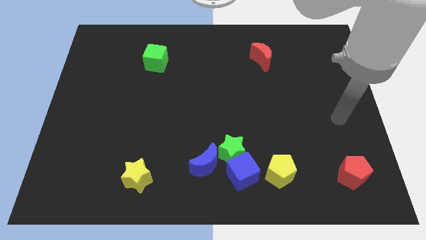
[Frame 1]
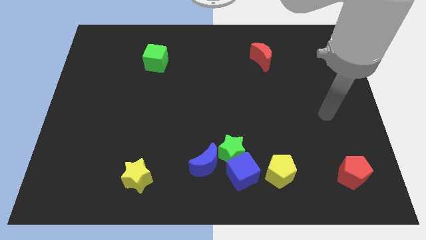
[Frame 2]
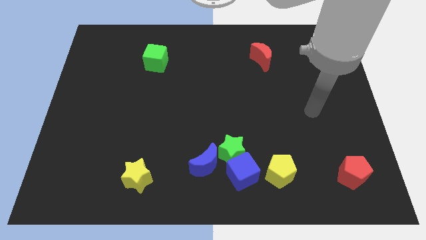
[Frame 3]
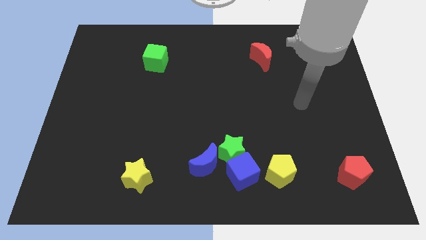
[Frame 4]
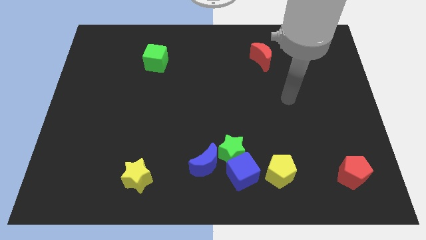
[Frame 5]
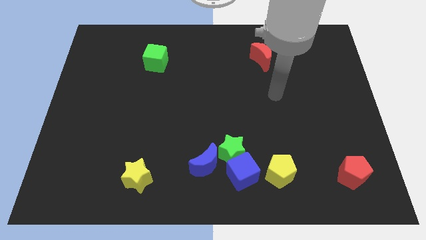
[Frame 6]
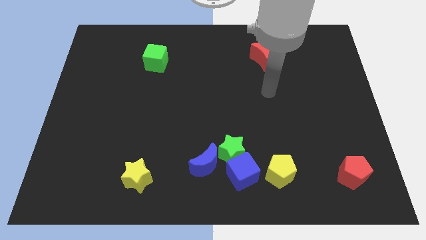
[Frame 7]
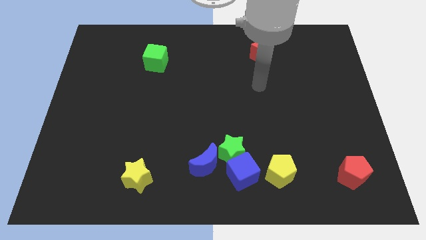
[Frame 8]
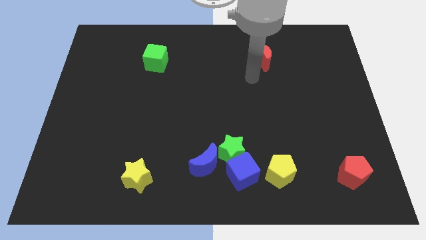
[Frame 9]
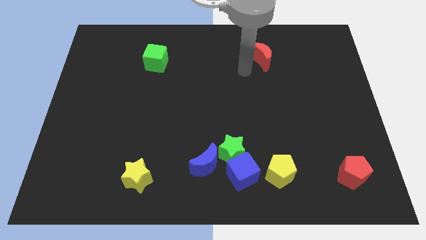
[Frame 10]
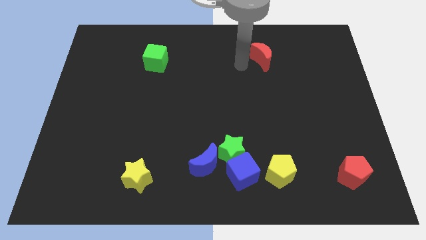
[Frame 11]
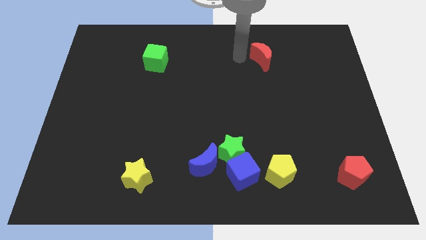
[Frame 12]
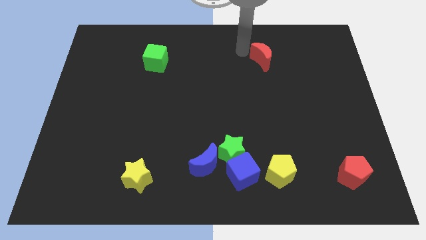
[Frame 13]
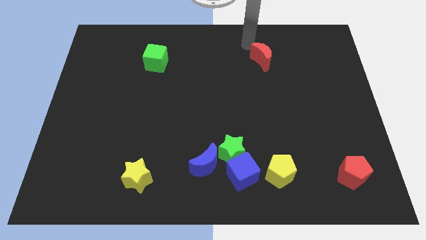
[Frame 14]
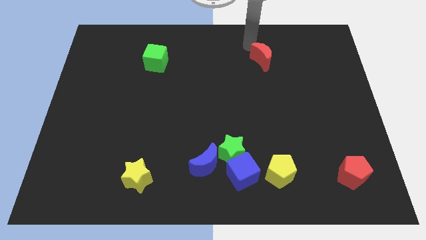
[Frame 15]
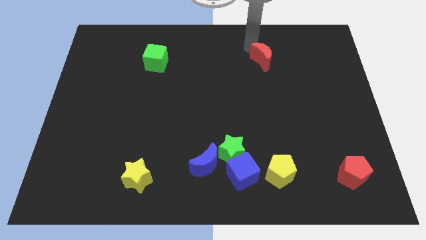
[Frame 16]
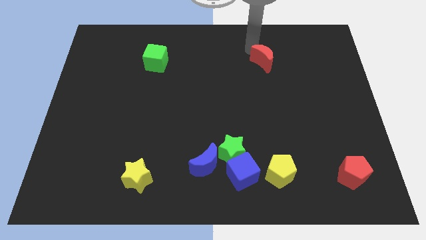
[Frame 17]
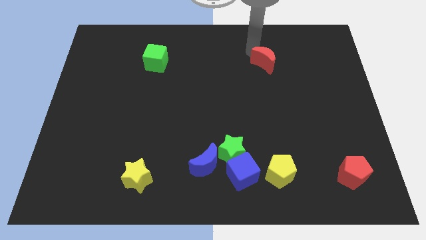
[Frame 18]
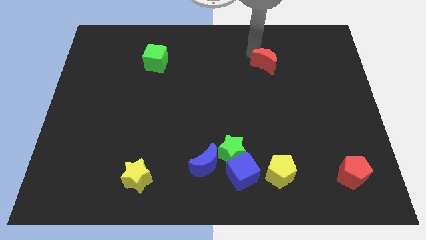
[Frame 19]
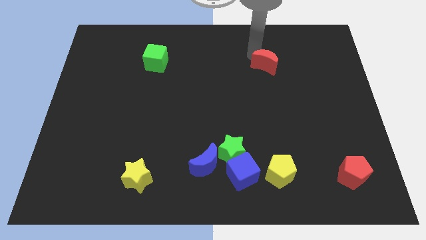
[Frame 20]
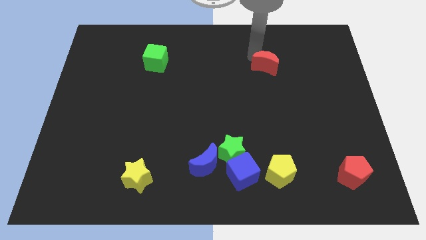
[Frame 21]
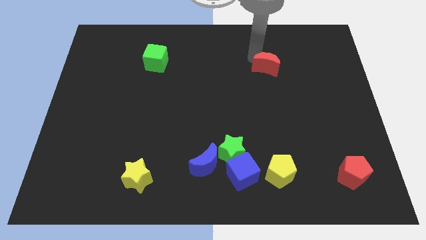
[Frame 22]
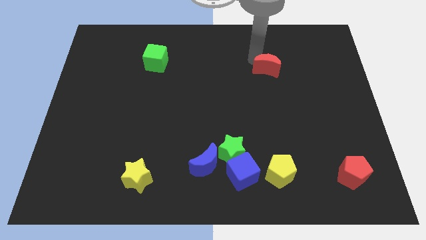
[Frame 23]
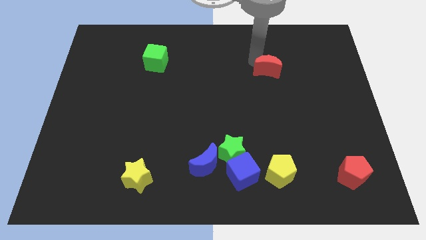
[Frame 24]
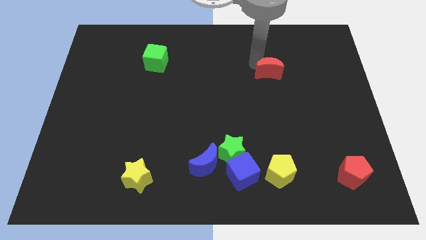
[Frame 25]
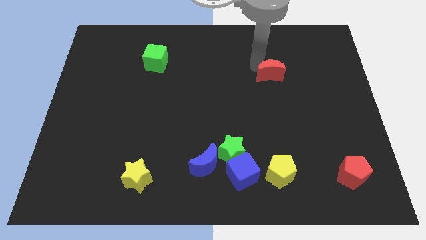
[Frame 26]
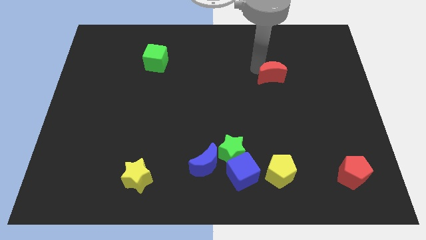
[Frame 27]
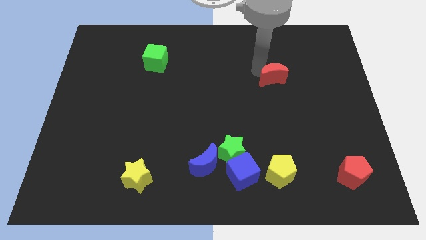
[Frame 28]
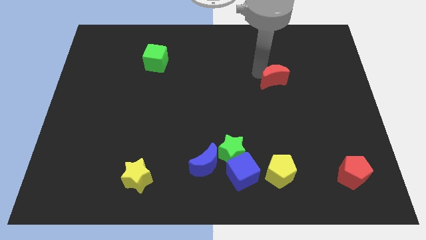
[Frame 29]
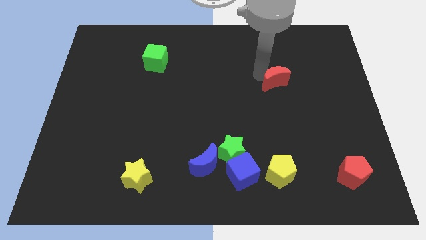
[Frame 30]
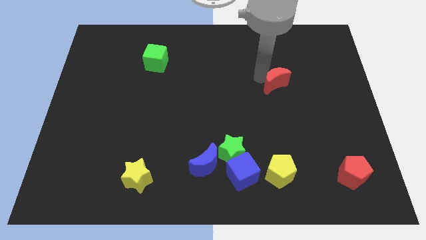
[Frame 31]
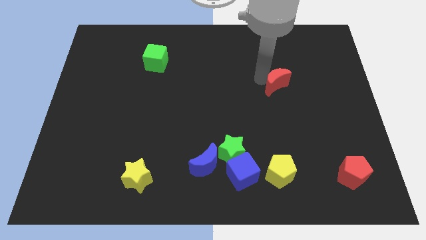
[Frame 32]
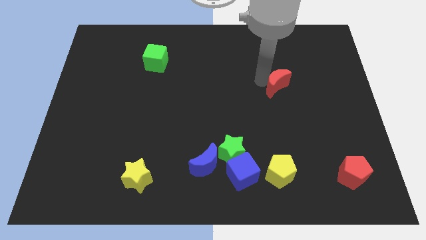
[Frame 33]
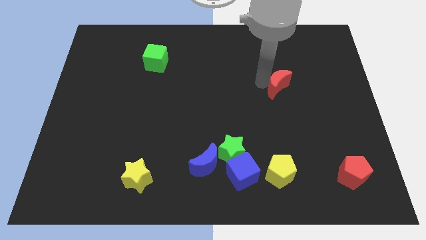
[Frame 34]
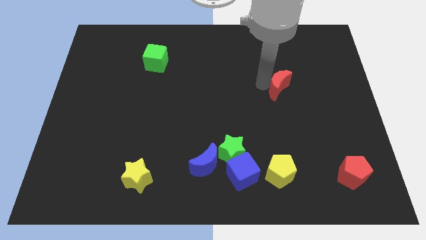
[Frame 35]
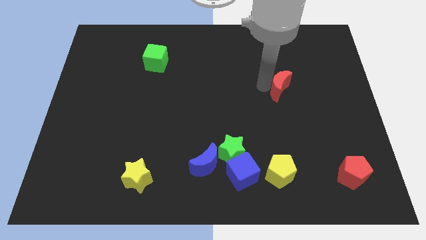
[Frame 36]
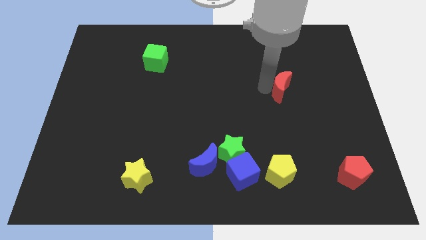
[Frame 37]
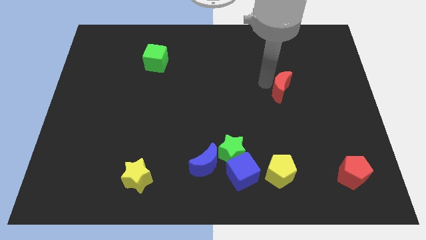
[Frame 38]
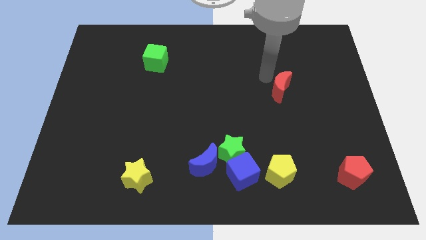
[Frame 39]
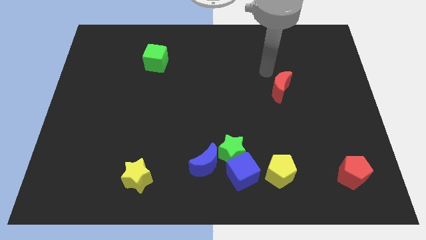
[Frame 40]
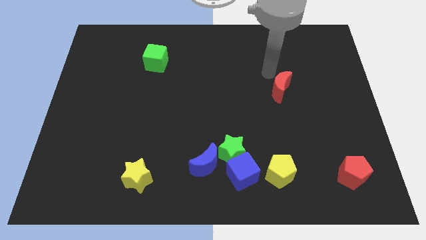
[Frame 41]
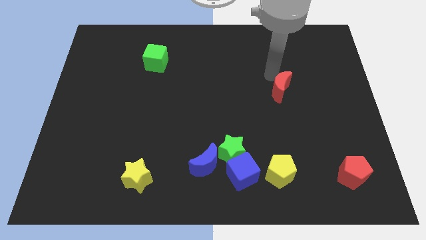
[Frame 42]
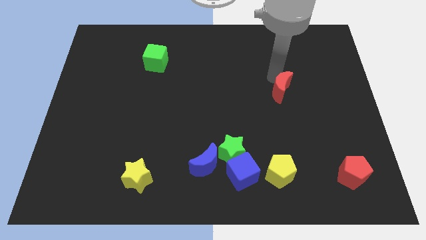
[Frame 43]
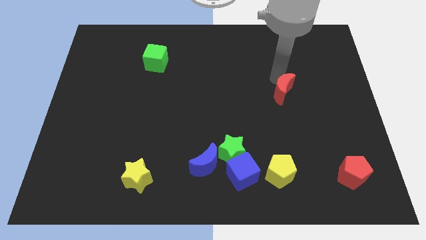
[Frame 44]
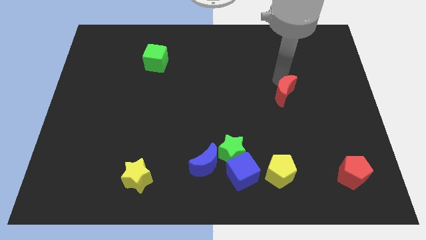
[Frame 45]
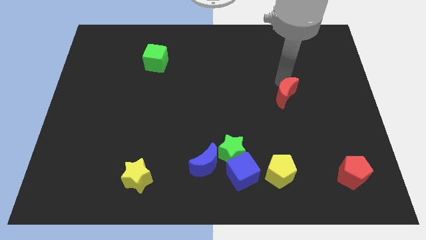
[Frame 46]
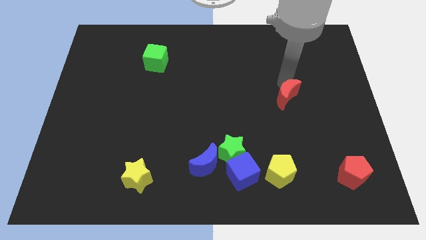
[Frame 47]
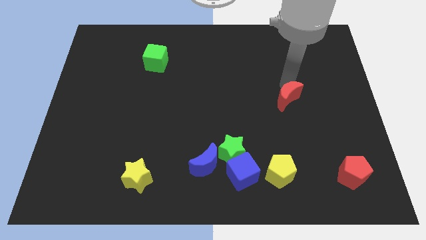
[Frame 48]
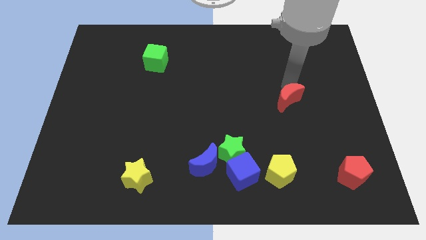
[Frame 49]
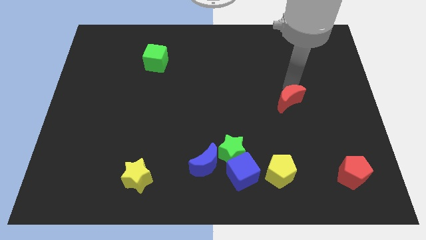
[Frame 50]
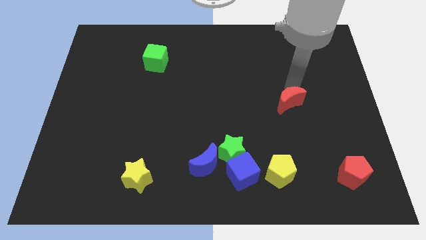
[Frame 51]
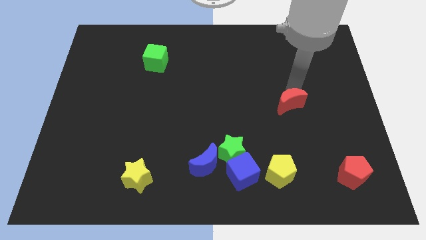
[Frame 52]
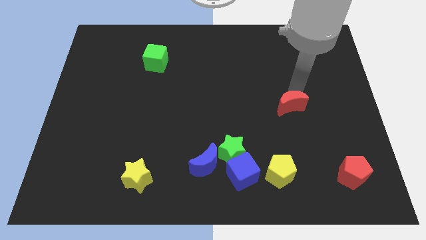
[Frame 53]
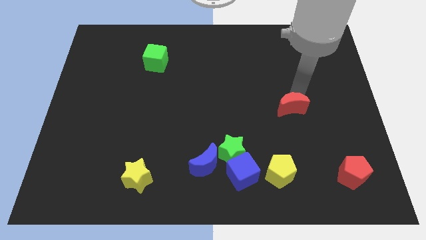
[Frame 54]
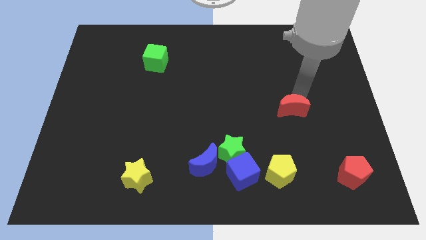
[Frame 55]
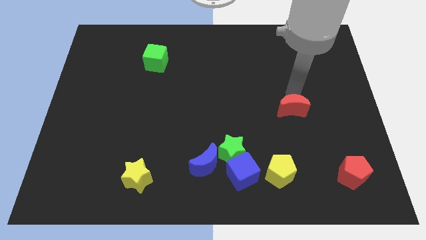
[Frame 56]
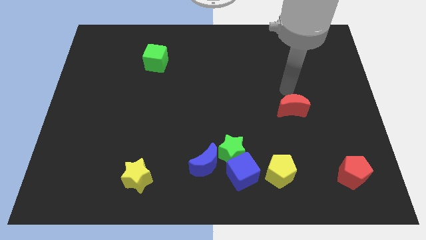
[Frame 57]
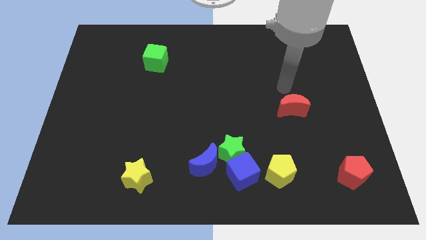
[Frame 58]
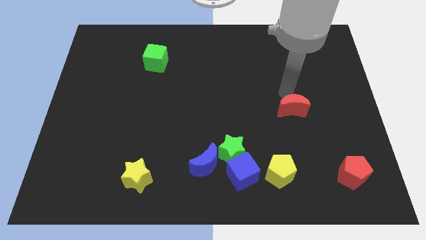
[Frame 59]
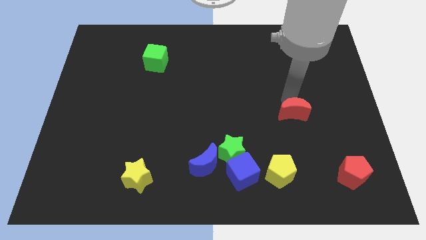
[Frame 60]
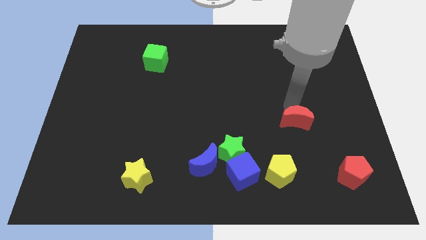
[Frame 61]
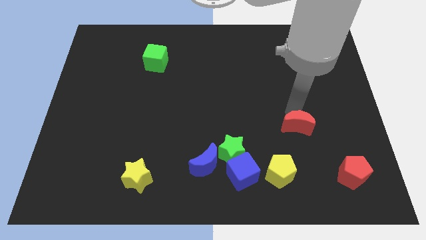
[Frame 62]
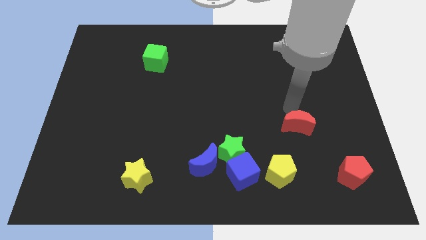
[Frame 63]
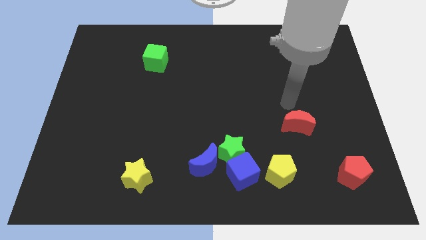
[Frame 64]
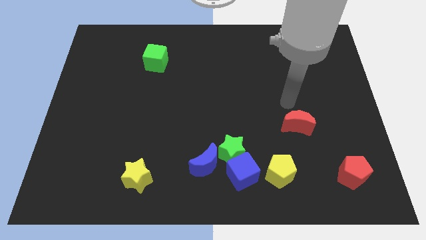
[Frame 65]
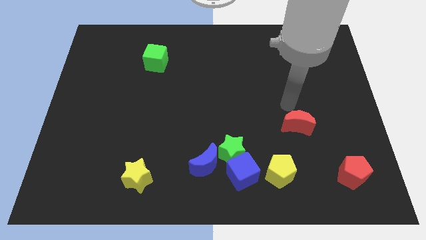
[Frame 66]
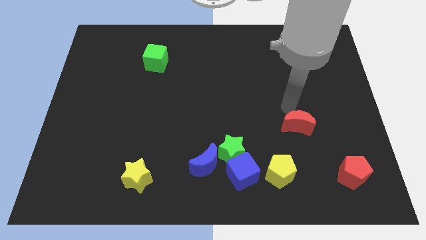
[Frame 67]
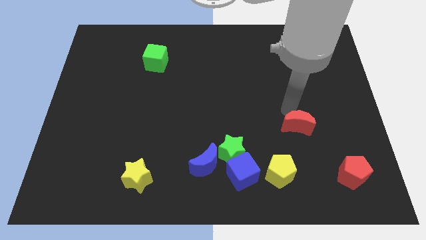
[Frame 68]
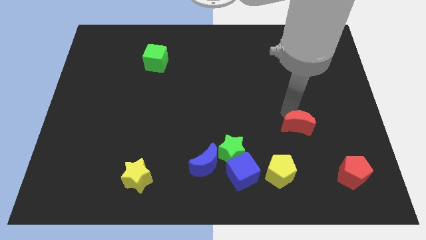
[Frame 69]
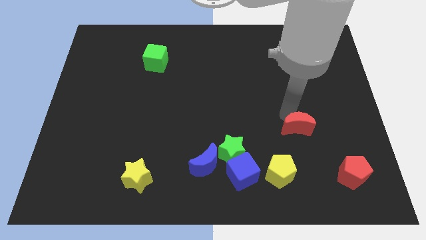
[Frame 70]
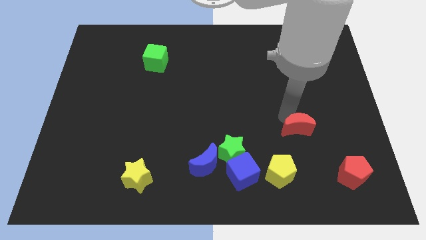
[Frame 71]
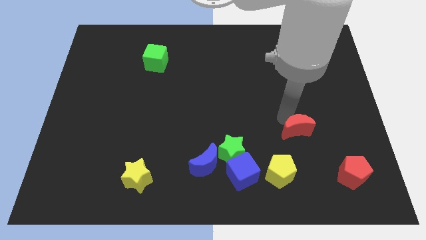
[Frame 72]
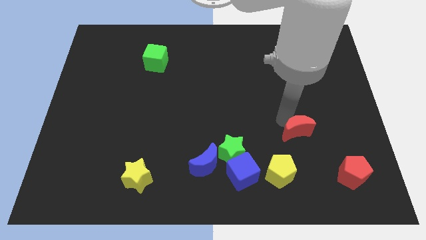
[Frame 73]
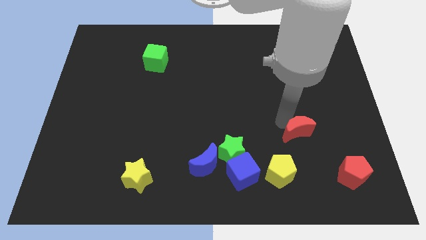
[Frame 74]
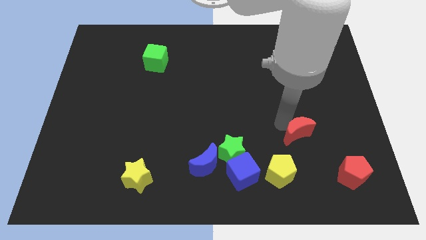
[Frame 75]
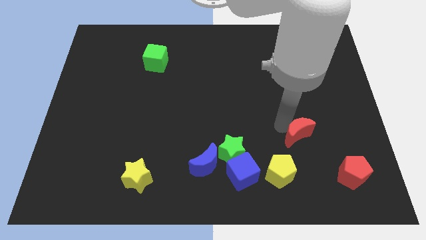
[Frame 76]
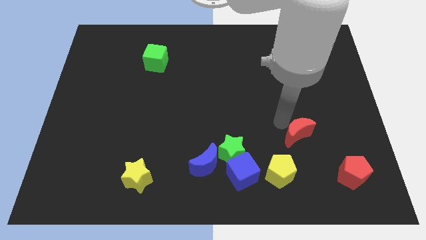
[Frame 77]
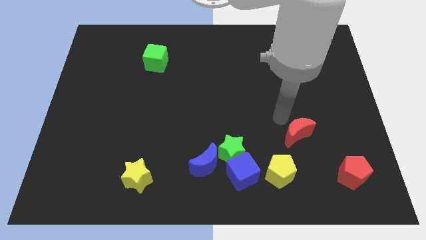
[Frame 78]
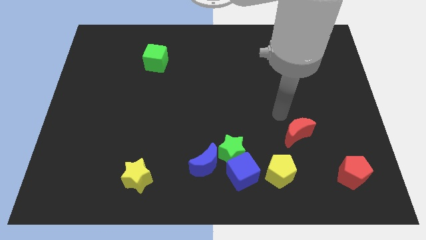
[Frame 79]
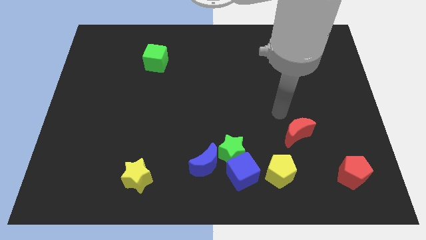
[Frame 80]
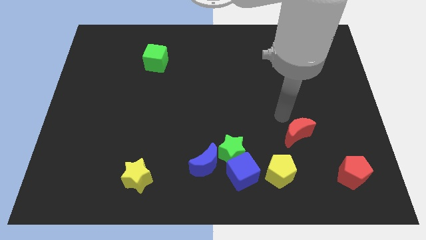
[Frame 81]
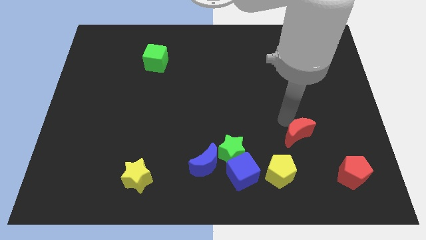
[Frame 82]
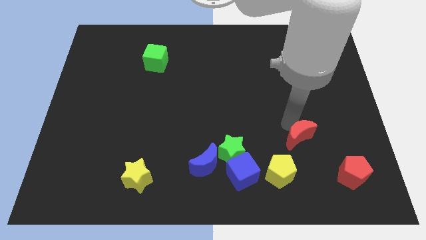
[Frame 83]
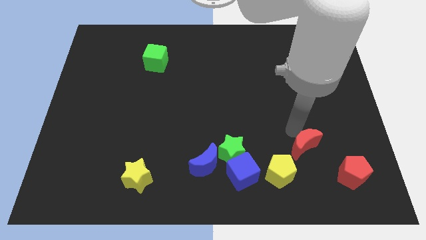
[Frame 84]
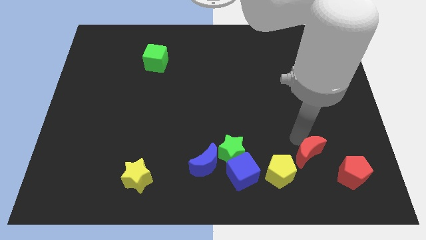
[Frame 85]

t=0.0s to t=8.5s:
push the red moon to the right side of the yellow pentagon
